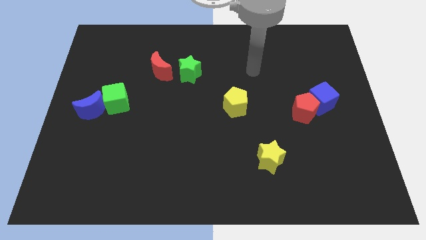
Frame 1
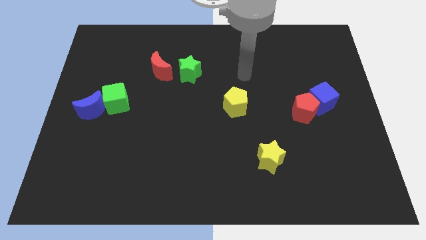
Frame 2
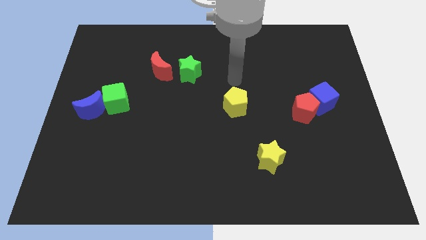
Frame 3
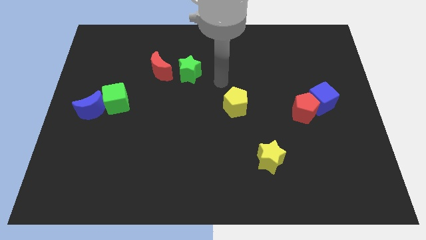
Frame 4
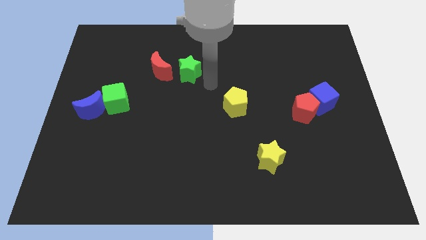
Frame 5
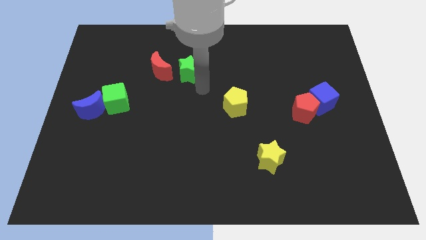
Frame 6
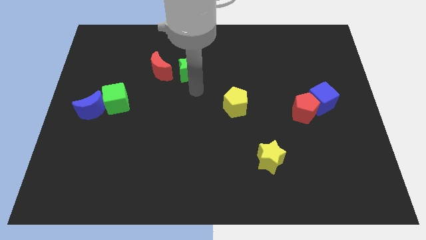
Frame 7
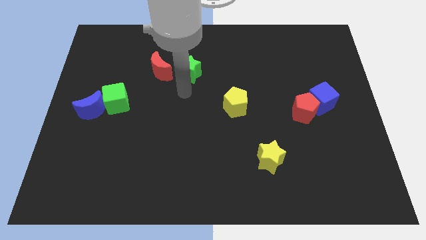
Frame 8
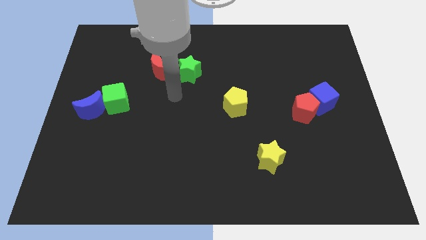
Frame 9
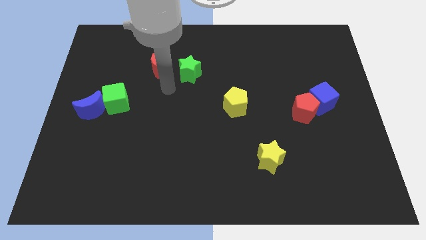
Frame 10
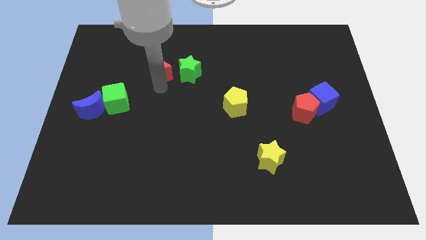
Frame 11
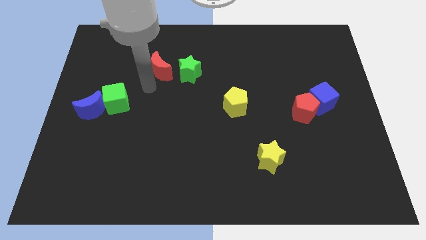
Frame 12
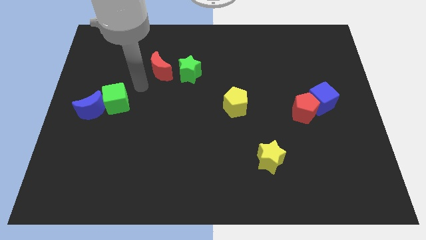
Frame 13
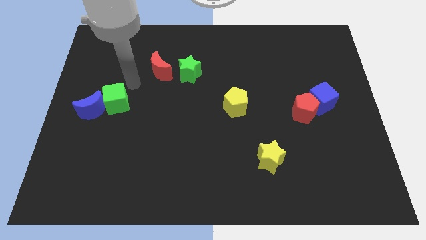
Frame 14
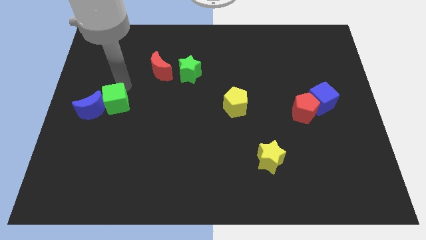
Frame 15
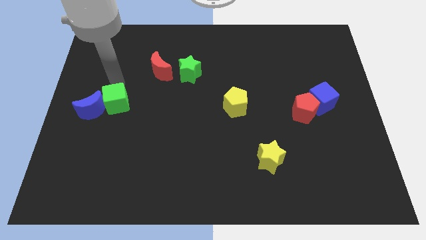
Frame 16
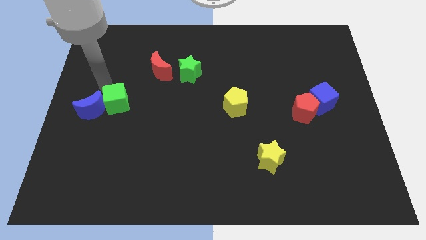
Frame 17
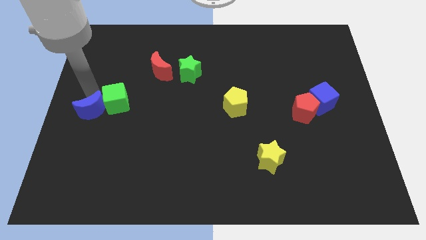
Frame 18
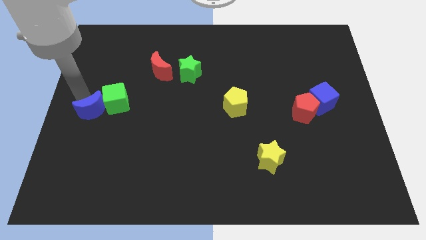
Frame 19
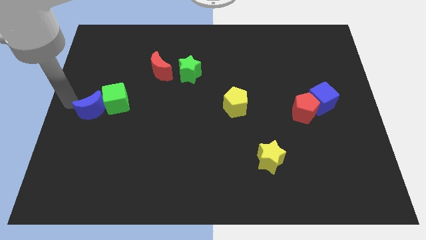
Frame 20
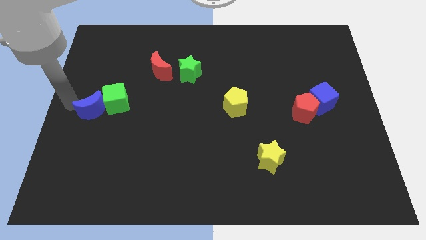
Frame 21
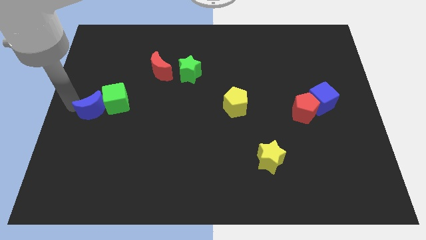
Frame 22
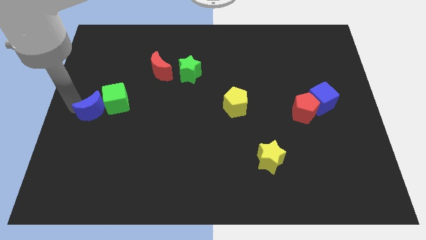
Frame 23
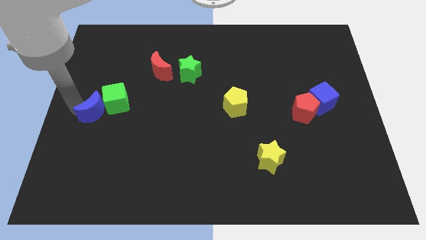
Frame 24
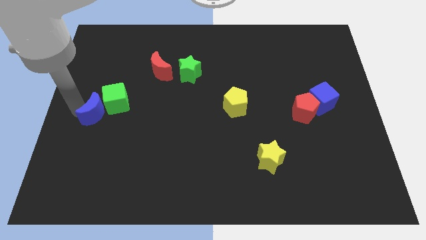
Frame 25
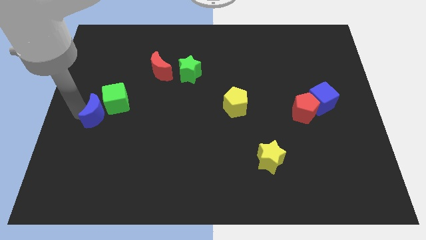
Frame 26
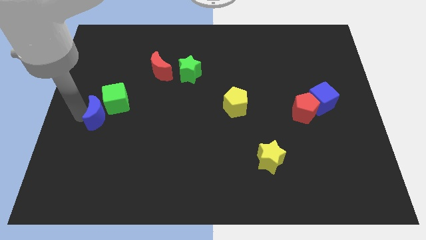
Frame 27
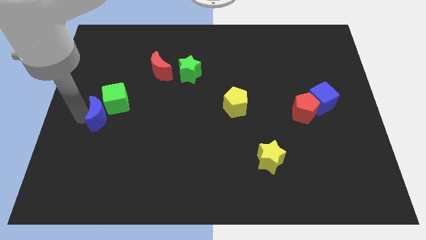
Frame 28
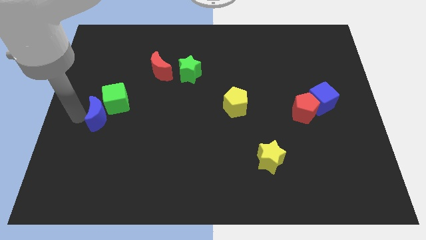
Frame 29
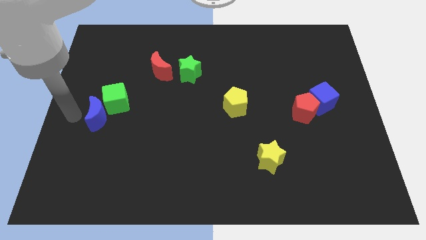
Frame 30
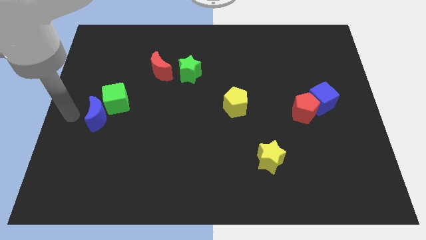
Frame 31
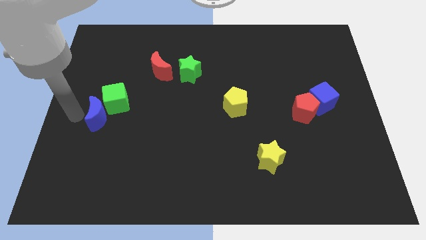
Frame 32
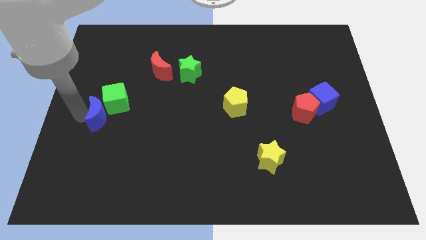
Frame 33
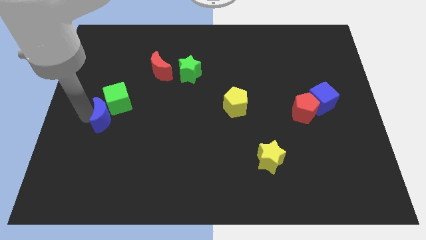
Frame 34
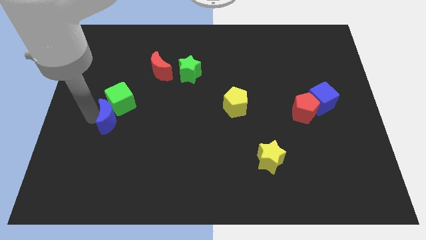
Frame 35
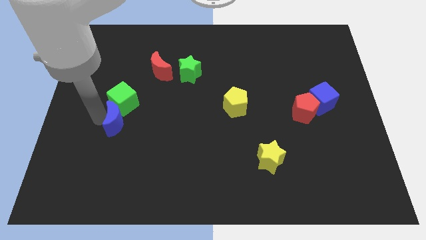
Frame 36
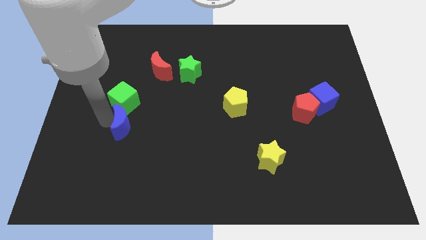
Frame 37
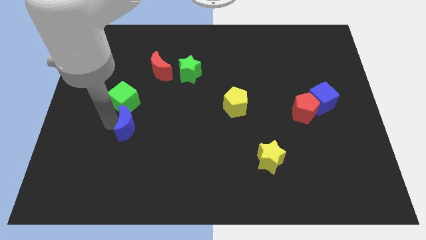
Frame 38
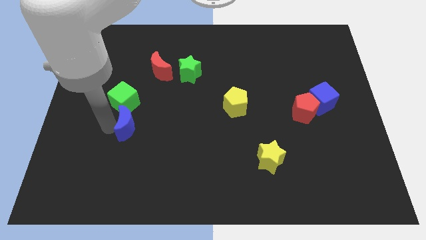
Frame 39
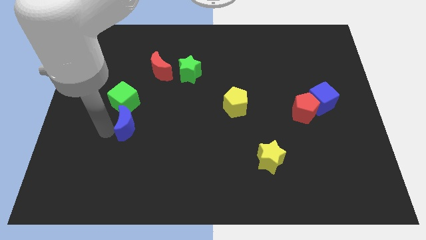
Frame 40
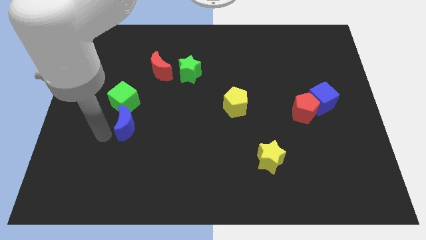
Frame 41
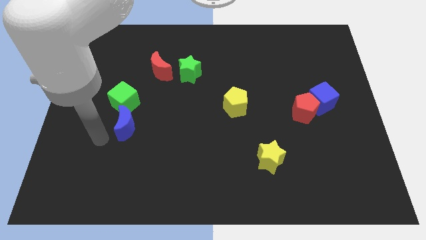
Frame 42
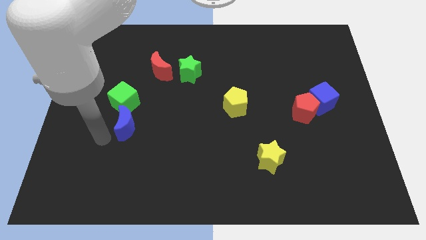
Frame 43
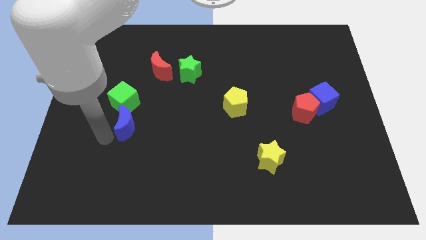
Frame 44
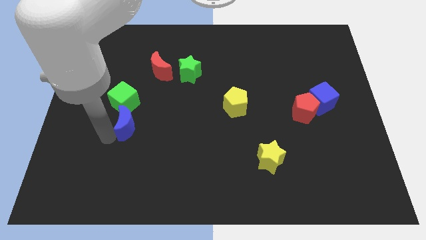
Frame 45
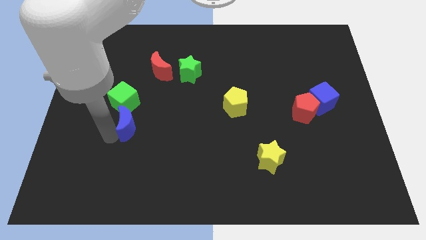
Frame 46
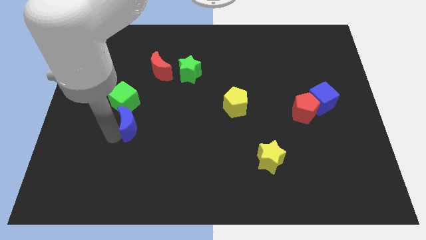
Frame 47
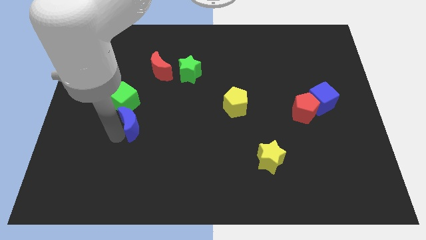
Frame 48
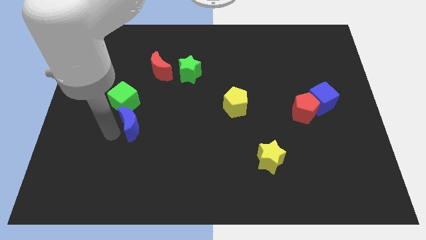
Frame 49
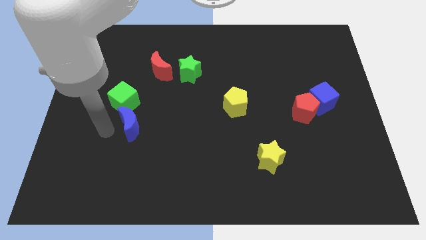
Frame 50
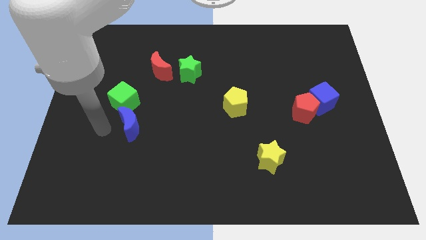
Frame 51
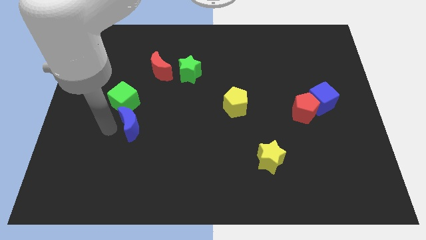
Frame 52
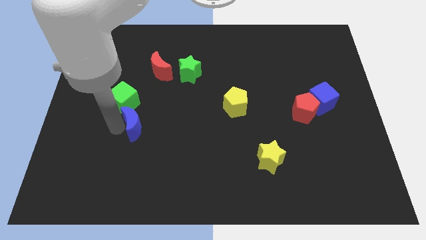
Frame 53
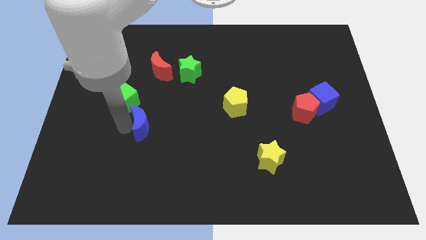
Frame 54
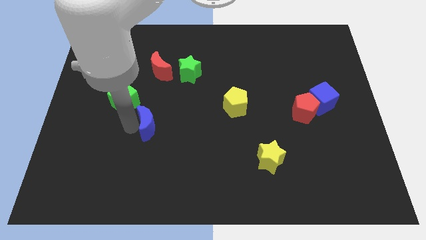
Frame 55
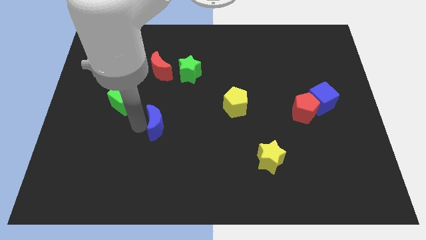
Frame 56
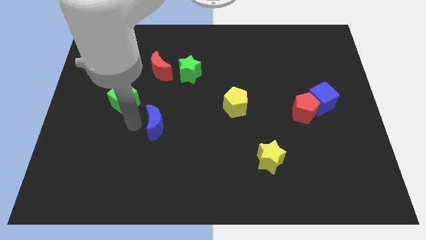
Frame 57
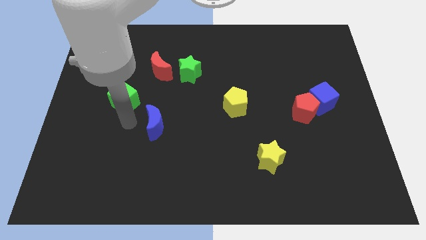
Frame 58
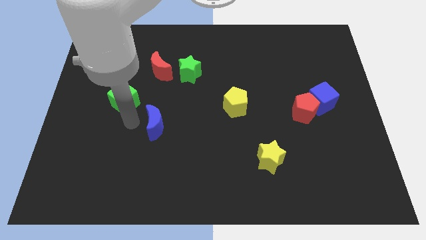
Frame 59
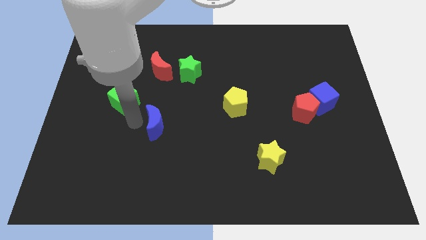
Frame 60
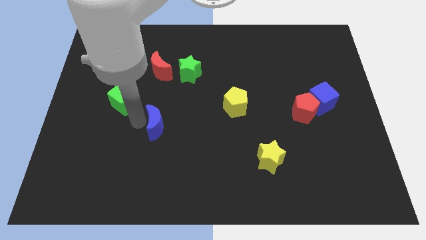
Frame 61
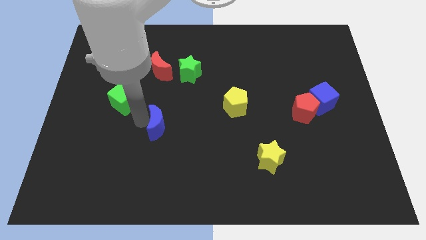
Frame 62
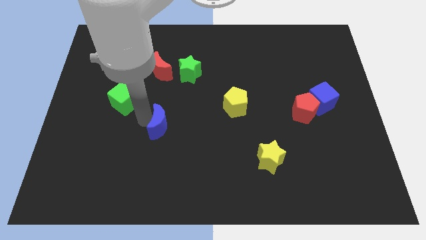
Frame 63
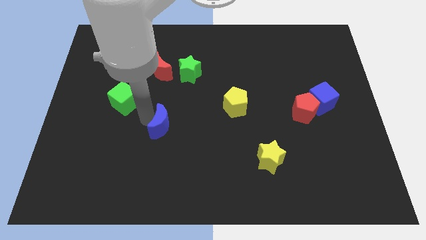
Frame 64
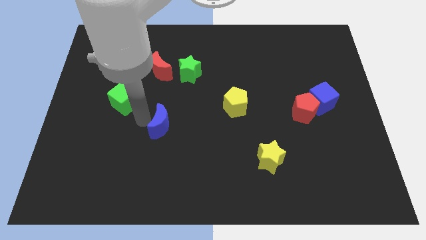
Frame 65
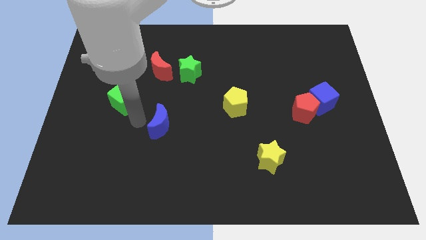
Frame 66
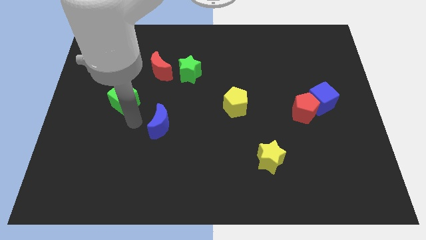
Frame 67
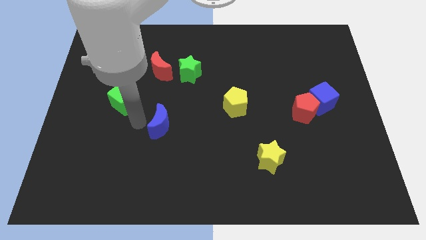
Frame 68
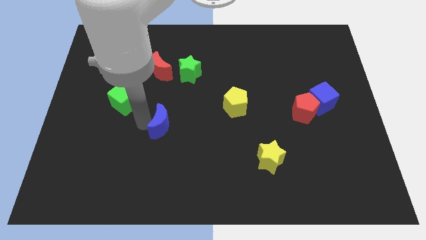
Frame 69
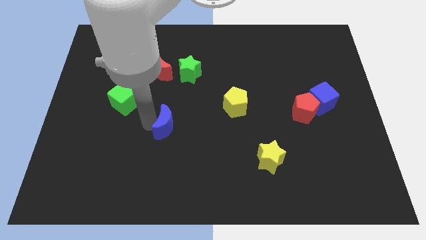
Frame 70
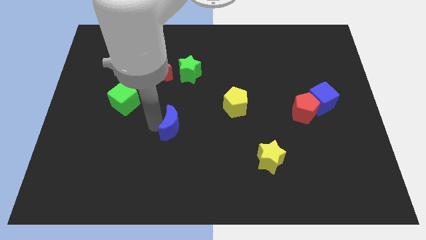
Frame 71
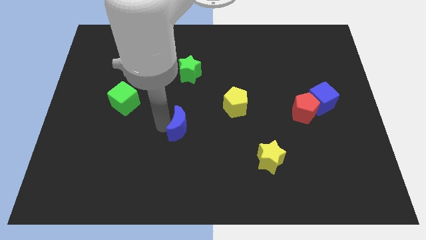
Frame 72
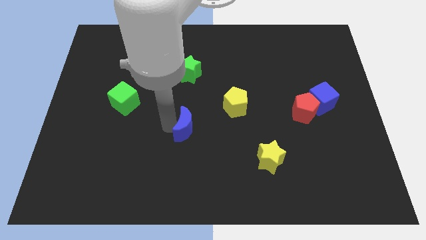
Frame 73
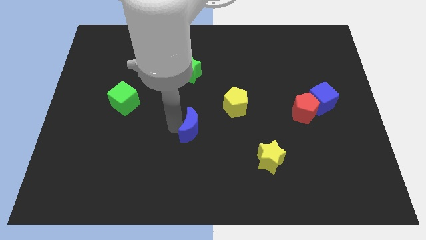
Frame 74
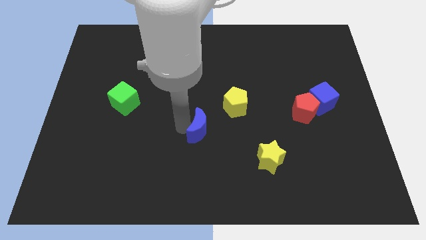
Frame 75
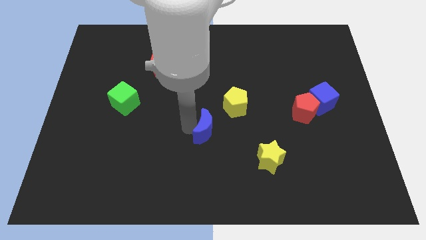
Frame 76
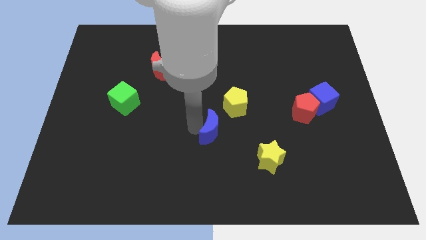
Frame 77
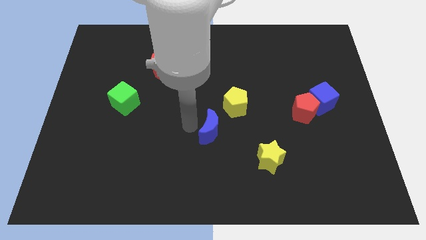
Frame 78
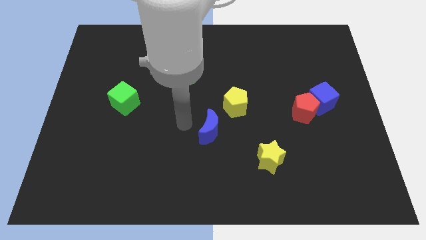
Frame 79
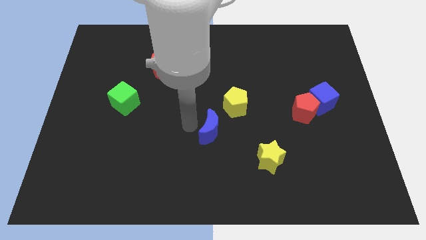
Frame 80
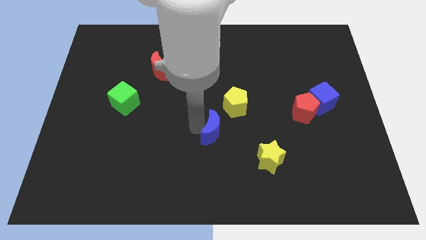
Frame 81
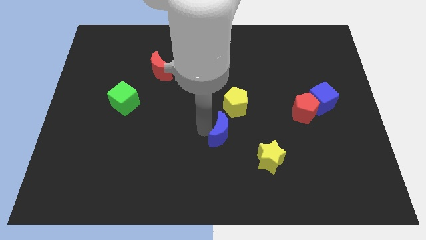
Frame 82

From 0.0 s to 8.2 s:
push the blue moon to the top left of the yellow star

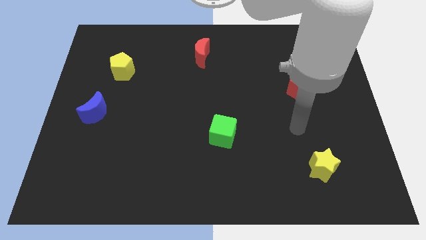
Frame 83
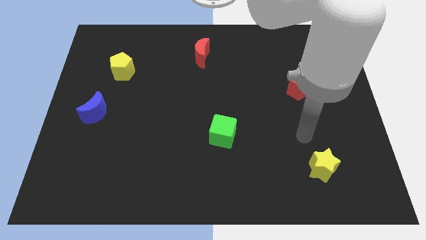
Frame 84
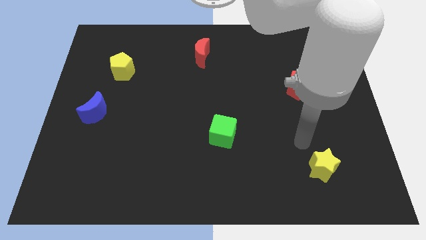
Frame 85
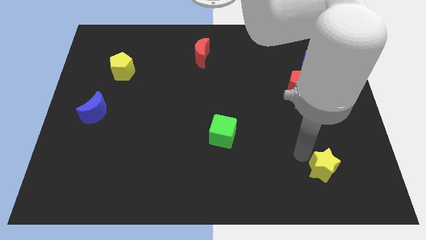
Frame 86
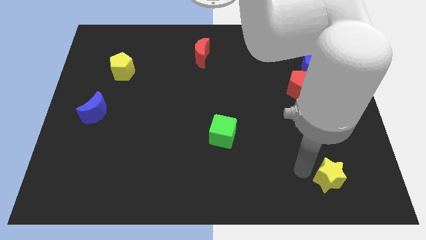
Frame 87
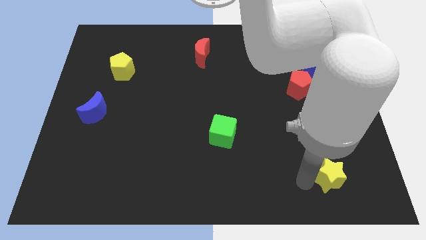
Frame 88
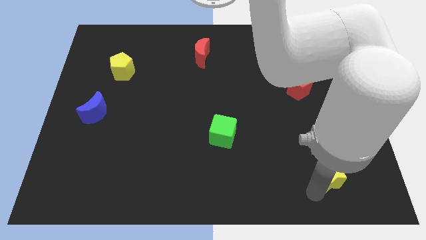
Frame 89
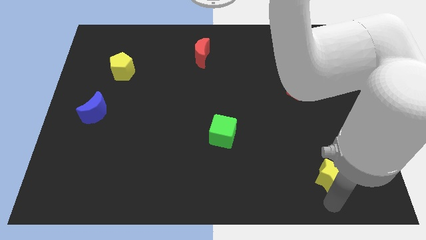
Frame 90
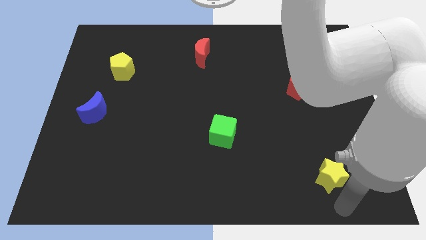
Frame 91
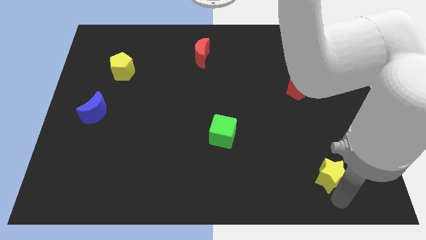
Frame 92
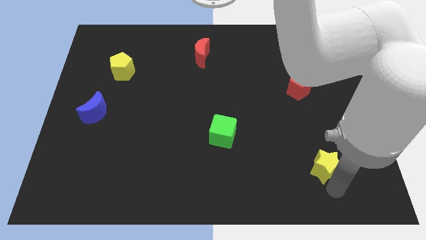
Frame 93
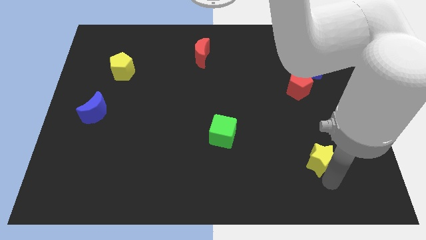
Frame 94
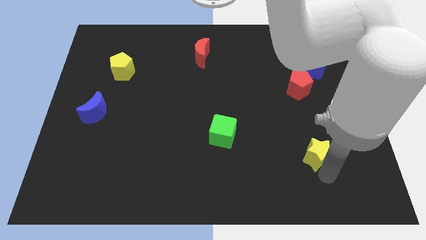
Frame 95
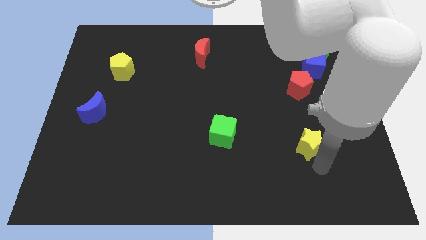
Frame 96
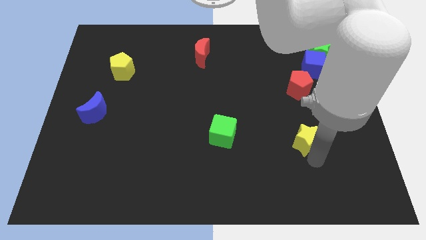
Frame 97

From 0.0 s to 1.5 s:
move the yellow star to the bottom of the red pentagon
